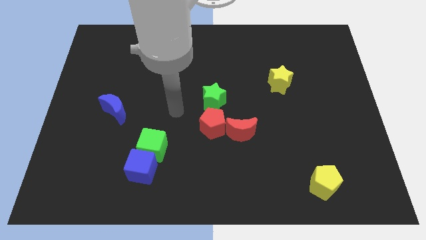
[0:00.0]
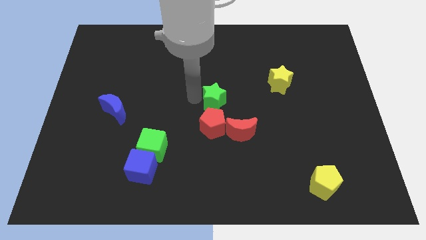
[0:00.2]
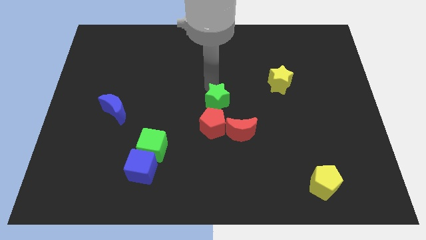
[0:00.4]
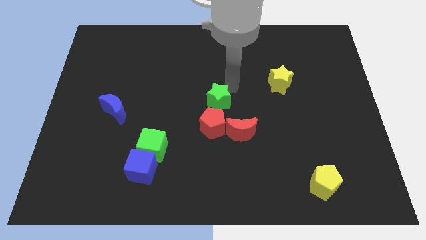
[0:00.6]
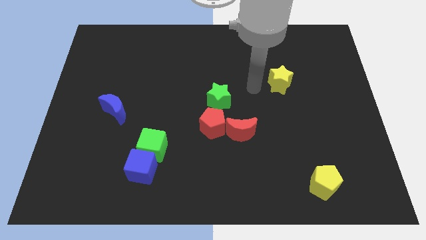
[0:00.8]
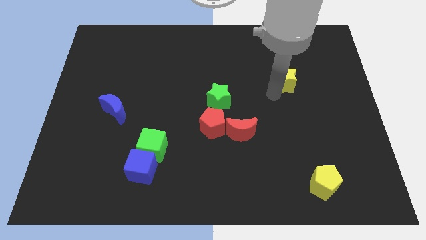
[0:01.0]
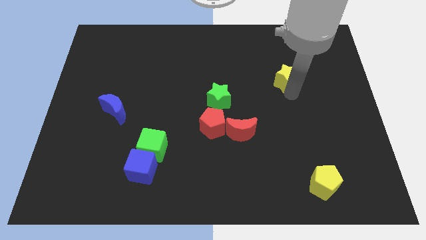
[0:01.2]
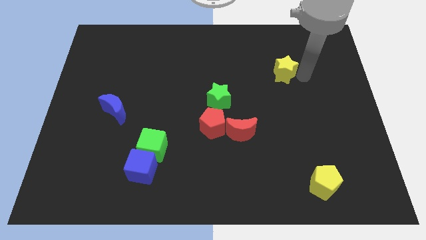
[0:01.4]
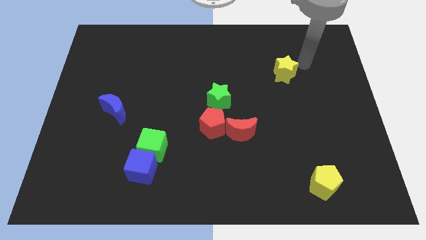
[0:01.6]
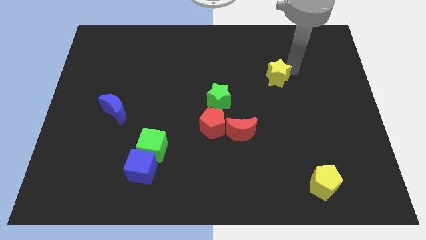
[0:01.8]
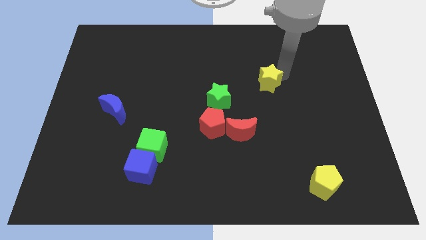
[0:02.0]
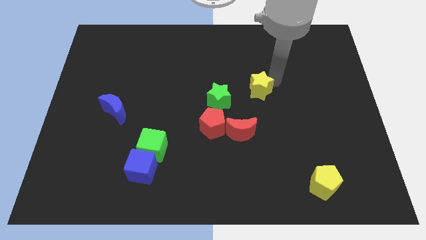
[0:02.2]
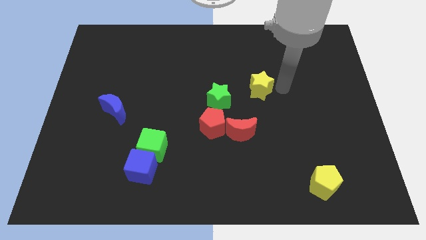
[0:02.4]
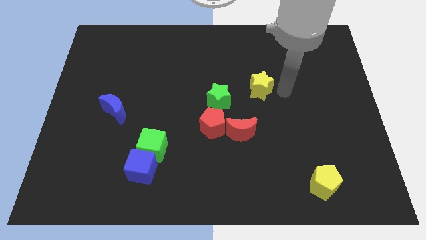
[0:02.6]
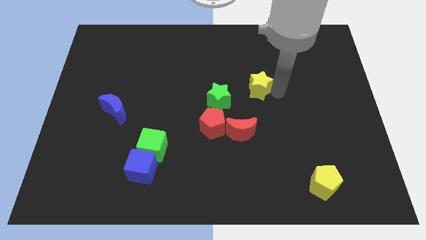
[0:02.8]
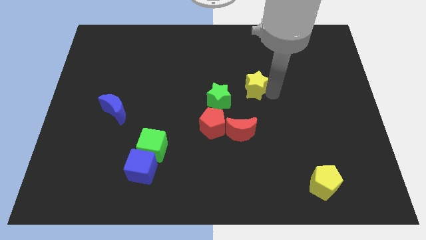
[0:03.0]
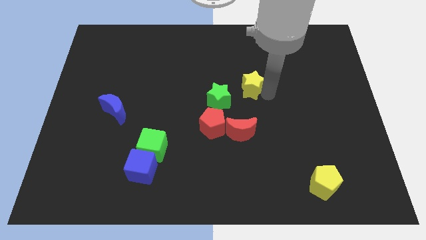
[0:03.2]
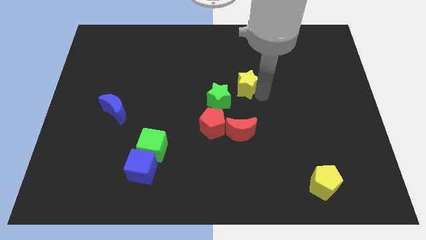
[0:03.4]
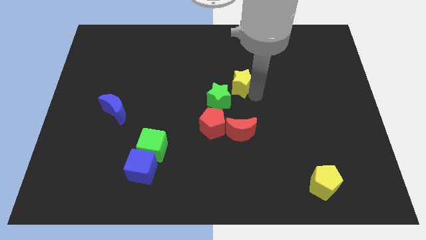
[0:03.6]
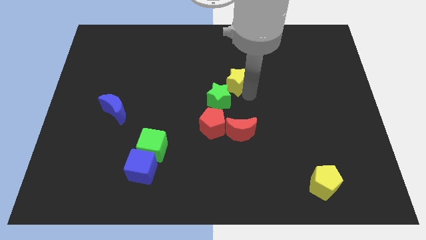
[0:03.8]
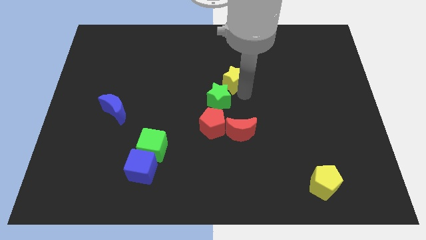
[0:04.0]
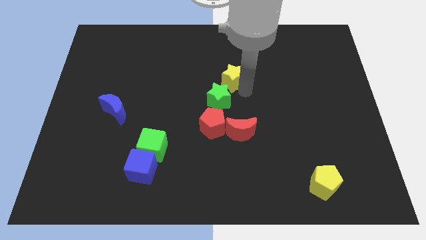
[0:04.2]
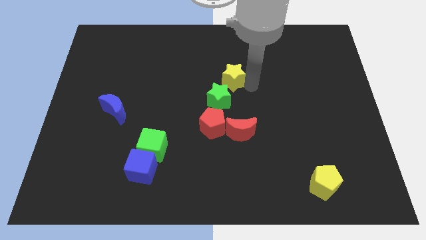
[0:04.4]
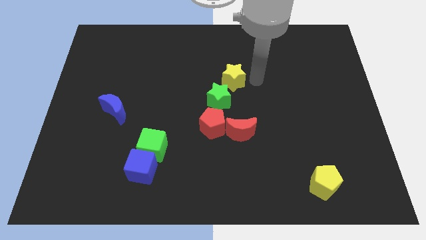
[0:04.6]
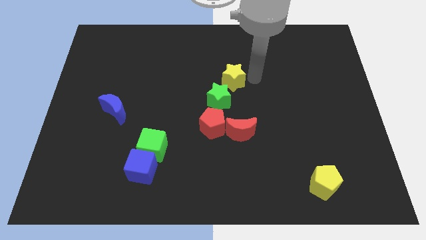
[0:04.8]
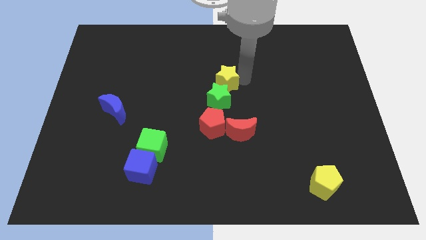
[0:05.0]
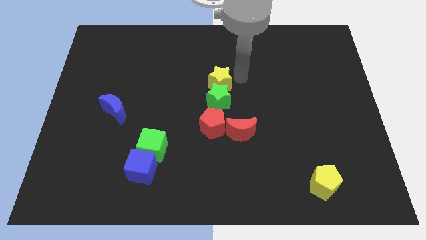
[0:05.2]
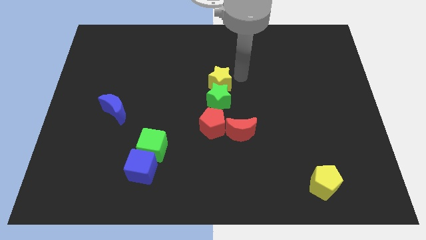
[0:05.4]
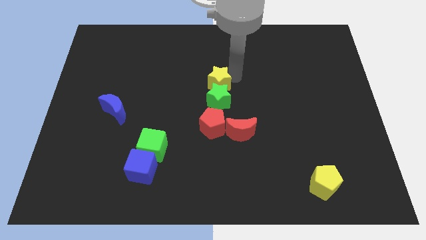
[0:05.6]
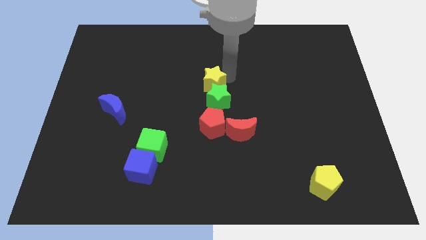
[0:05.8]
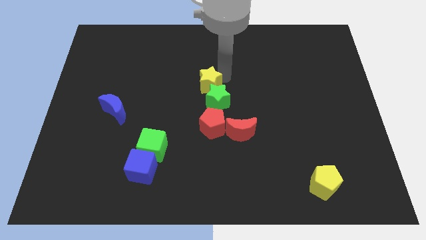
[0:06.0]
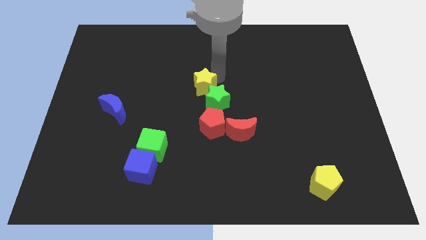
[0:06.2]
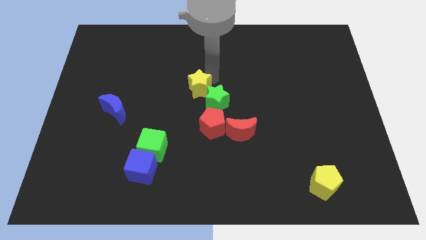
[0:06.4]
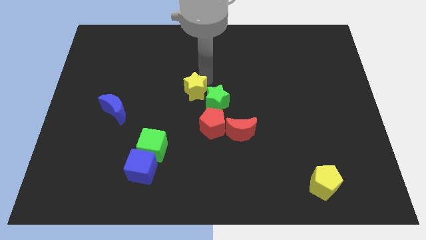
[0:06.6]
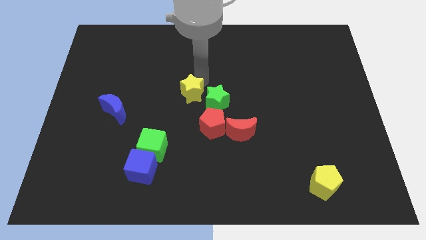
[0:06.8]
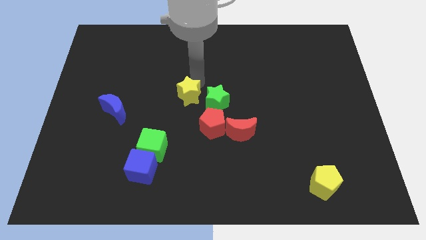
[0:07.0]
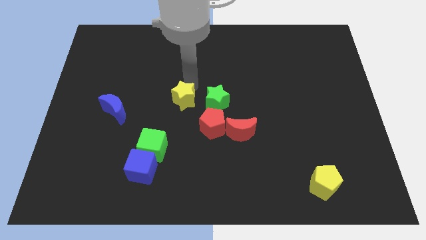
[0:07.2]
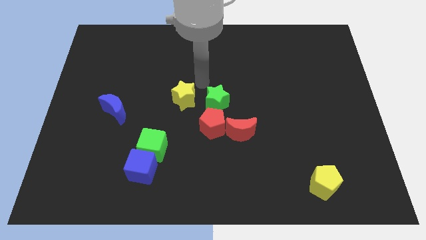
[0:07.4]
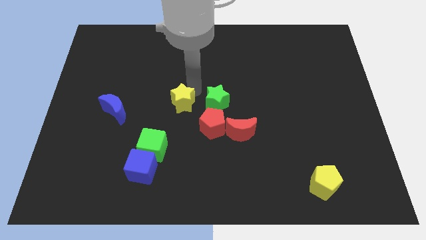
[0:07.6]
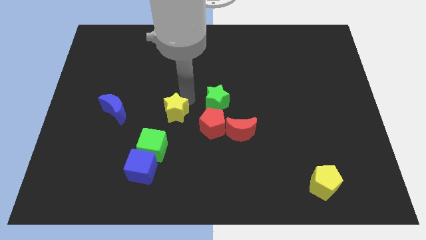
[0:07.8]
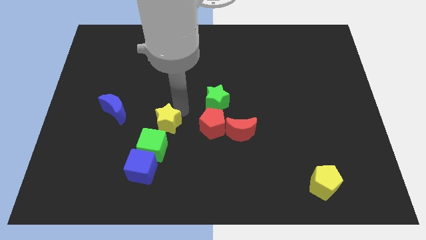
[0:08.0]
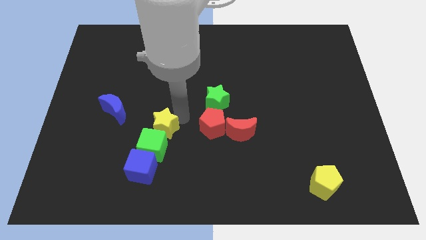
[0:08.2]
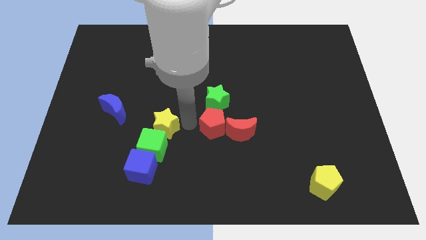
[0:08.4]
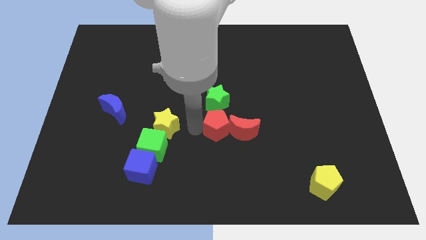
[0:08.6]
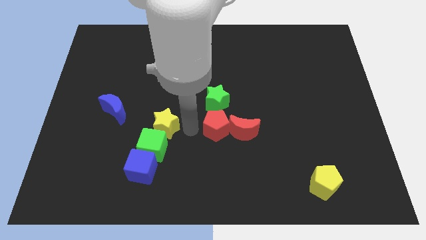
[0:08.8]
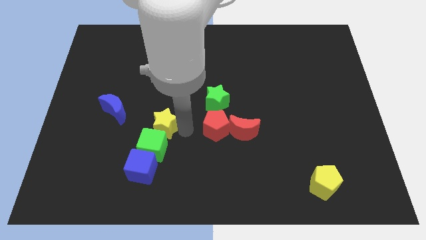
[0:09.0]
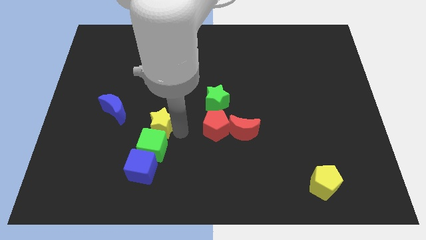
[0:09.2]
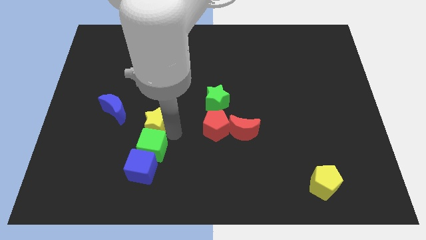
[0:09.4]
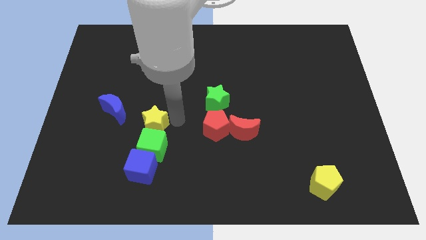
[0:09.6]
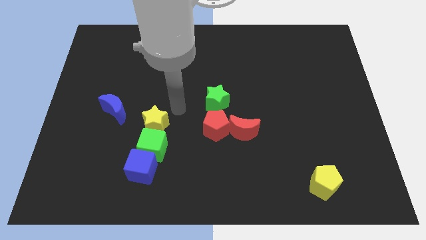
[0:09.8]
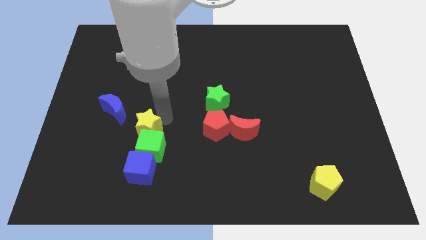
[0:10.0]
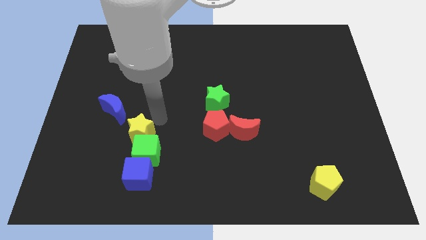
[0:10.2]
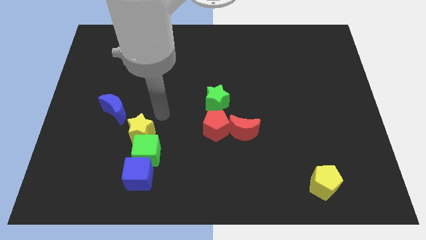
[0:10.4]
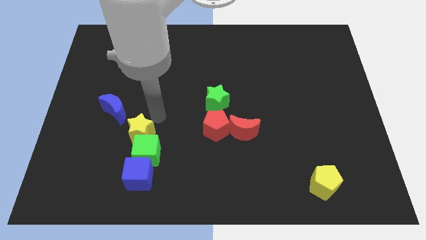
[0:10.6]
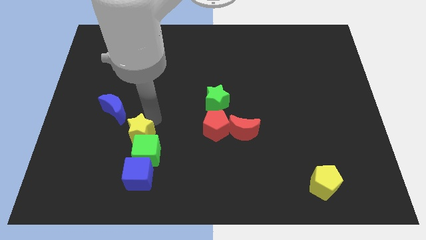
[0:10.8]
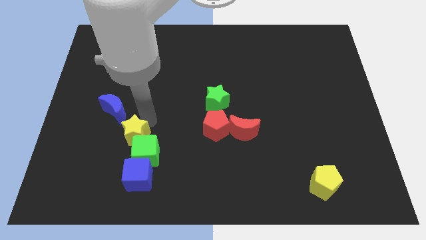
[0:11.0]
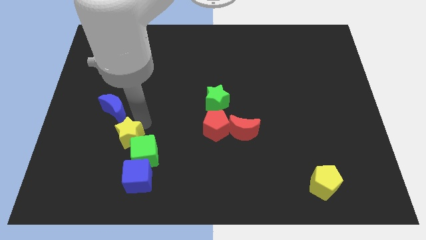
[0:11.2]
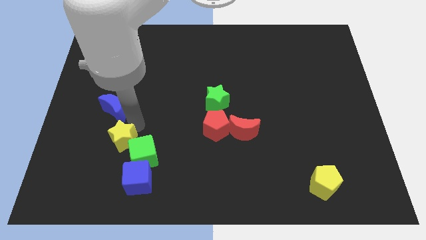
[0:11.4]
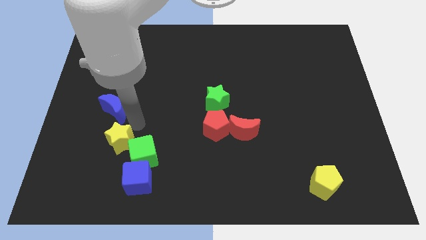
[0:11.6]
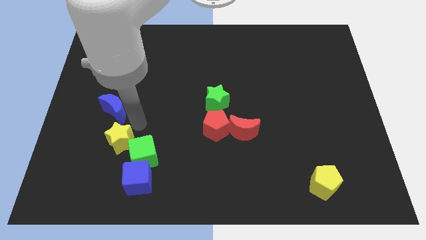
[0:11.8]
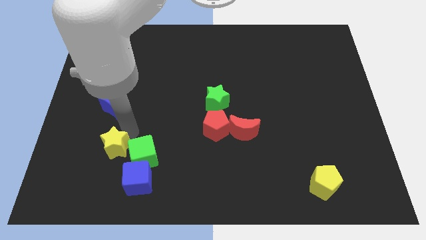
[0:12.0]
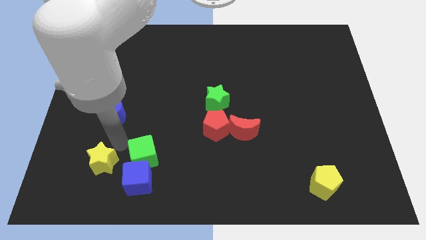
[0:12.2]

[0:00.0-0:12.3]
push the yellow star left of the blue cube

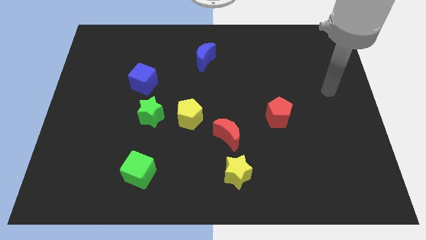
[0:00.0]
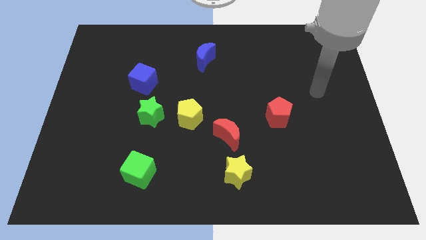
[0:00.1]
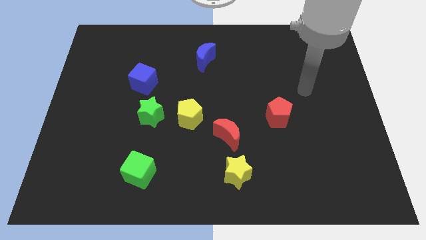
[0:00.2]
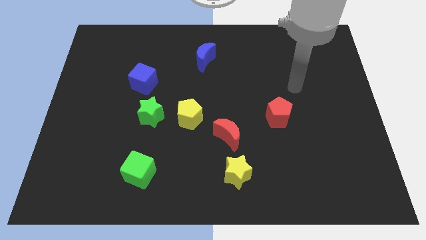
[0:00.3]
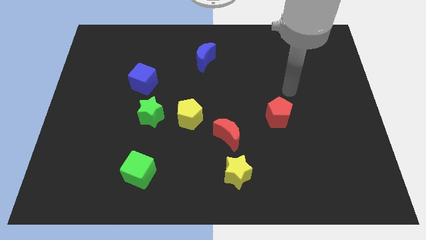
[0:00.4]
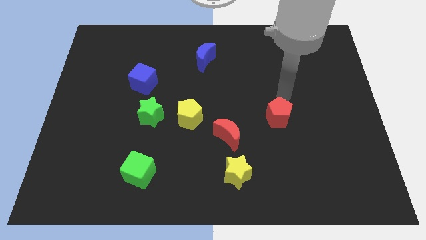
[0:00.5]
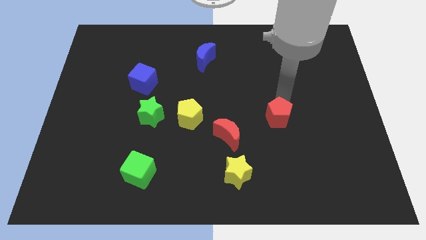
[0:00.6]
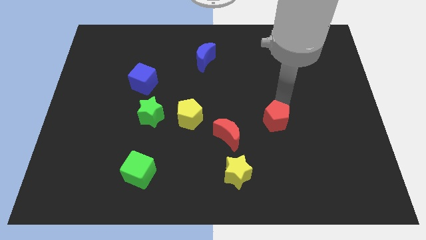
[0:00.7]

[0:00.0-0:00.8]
put the red pentagon just right of the red moon
